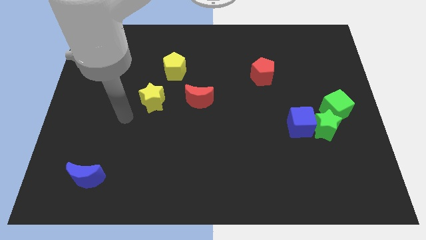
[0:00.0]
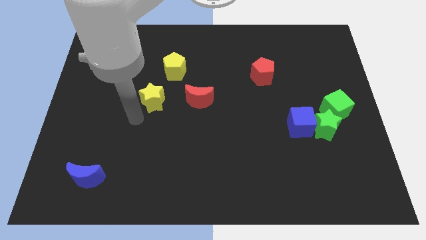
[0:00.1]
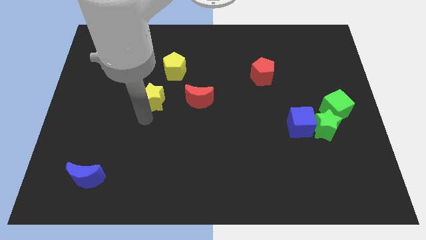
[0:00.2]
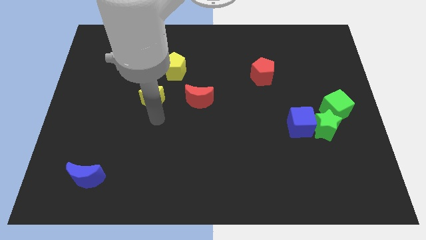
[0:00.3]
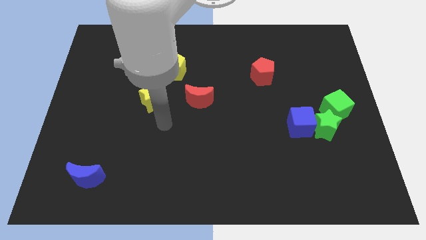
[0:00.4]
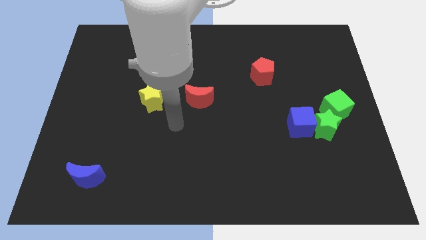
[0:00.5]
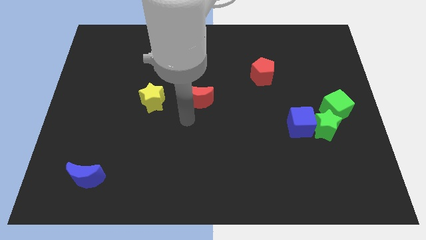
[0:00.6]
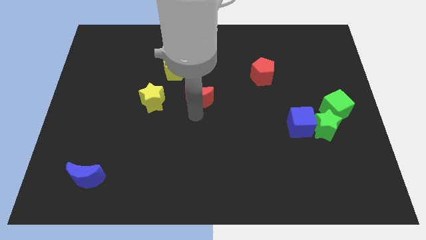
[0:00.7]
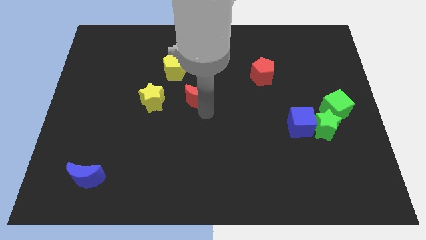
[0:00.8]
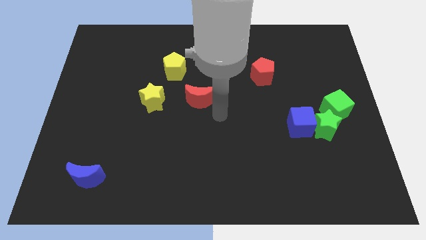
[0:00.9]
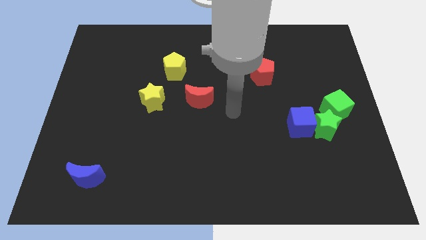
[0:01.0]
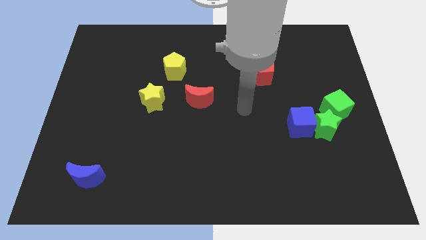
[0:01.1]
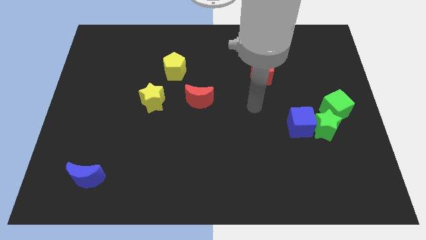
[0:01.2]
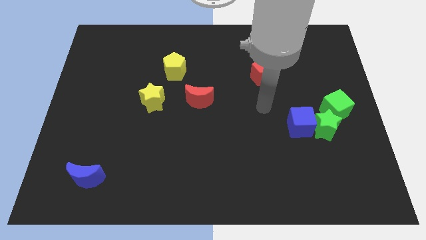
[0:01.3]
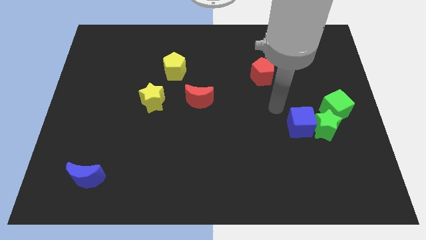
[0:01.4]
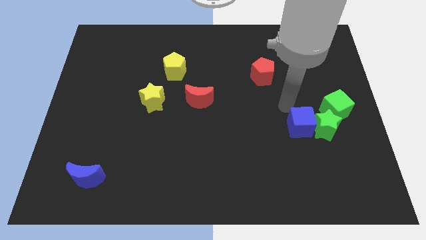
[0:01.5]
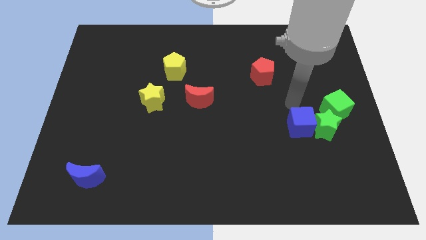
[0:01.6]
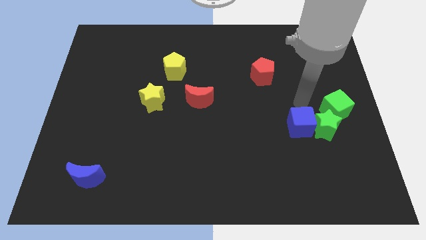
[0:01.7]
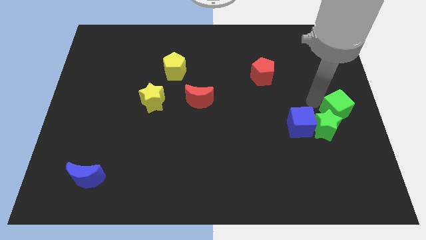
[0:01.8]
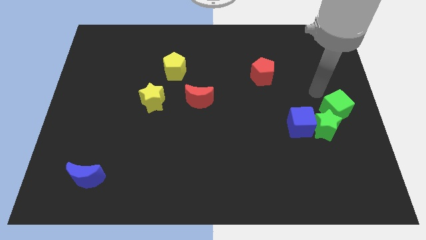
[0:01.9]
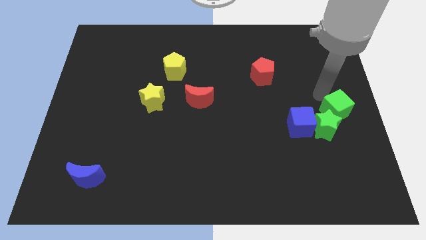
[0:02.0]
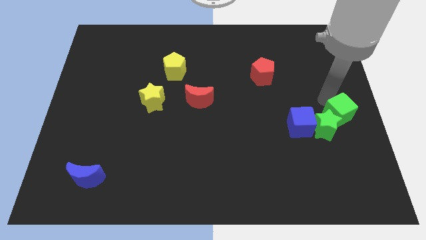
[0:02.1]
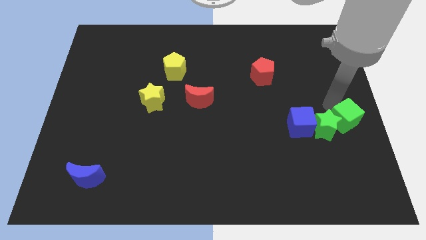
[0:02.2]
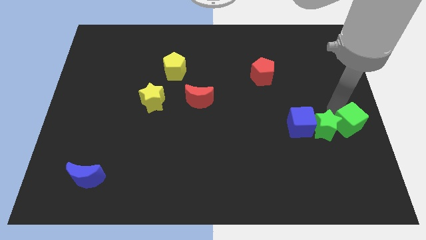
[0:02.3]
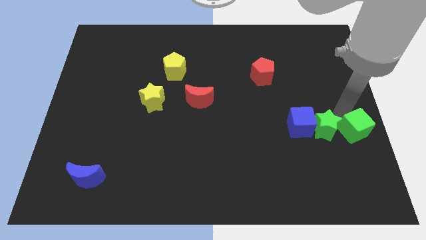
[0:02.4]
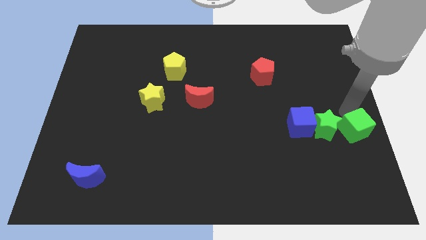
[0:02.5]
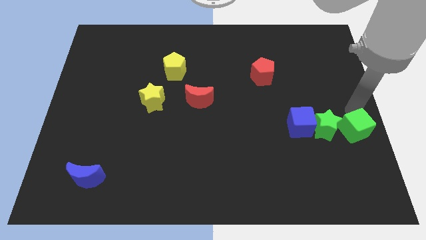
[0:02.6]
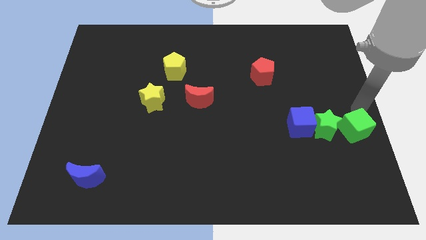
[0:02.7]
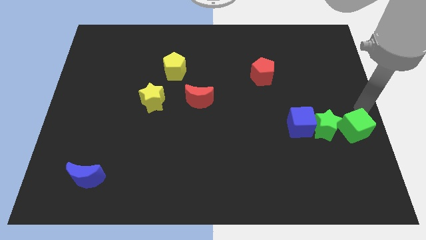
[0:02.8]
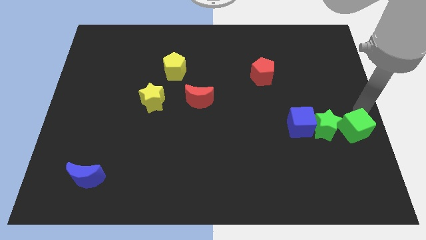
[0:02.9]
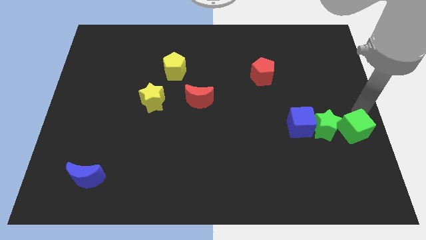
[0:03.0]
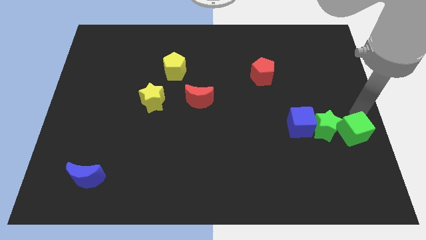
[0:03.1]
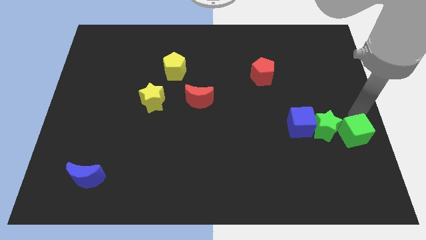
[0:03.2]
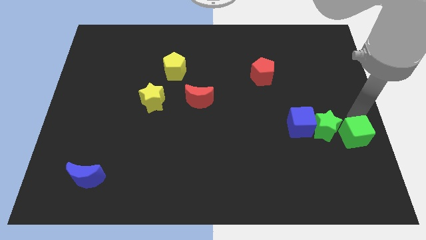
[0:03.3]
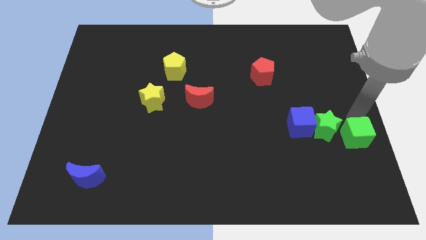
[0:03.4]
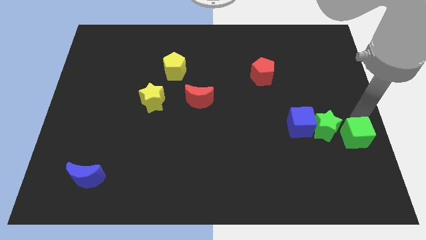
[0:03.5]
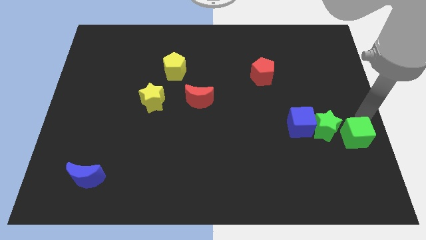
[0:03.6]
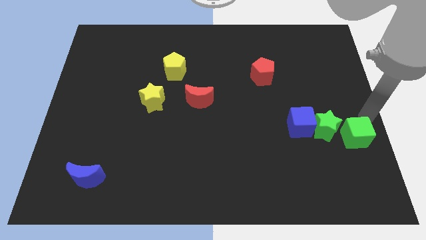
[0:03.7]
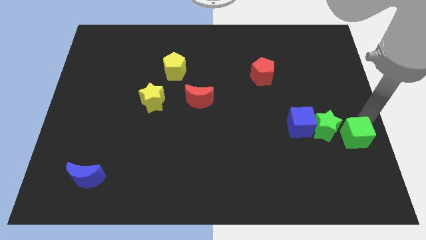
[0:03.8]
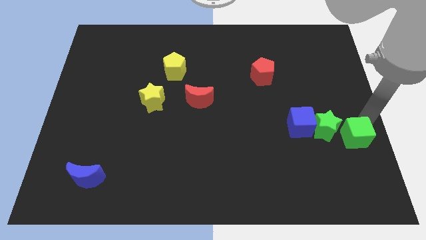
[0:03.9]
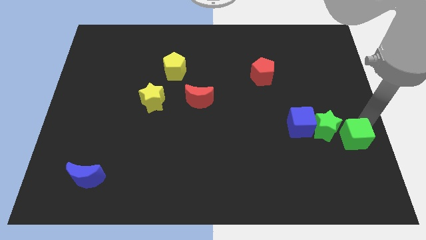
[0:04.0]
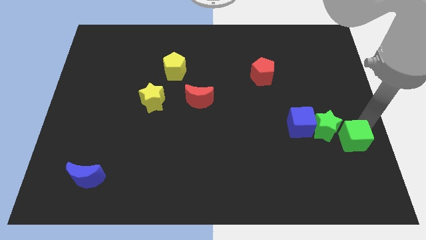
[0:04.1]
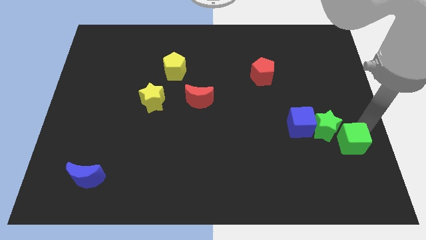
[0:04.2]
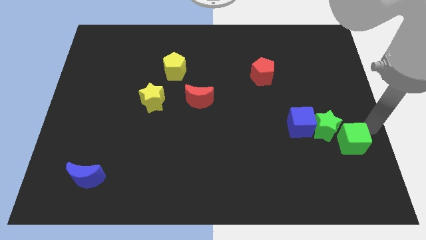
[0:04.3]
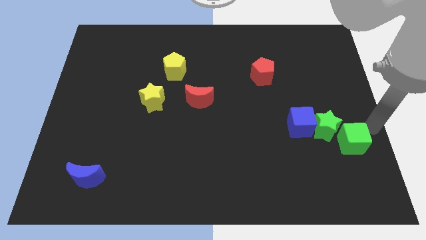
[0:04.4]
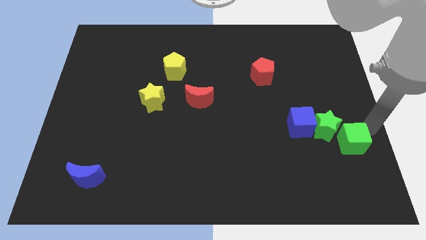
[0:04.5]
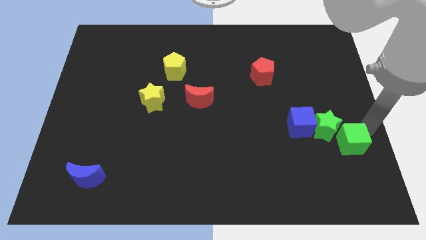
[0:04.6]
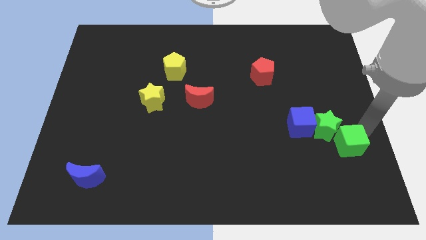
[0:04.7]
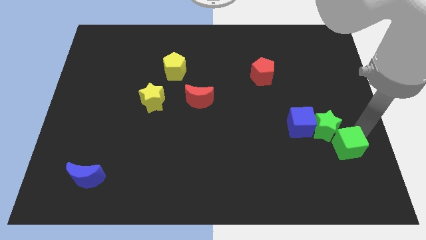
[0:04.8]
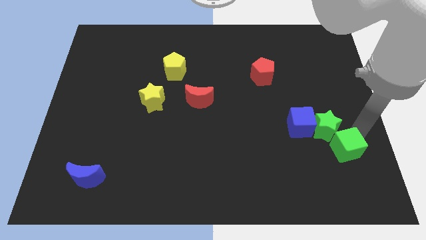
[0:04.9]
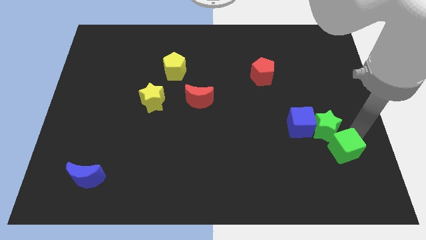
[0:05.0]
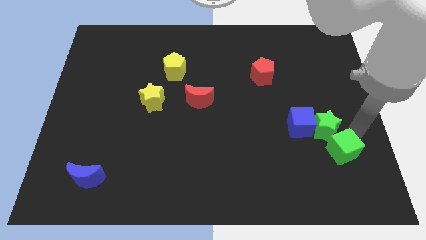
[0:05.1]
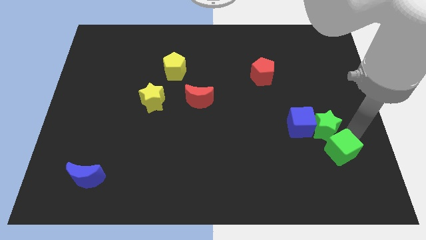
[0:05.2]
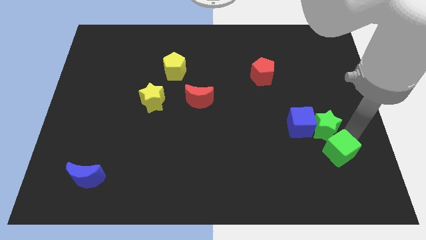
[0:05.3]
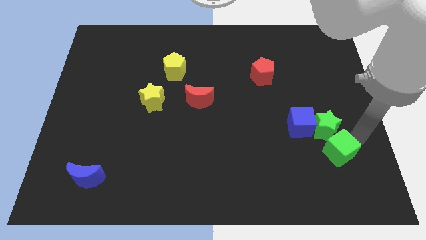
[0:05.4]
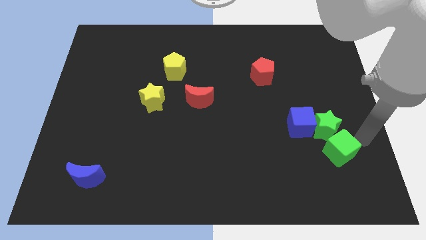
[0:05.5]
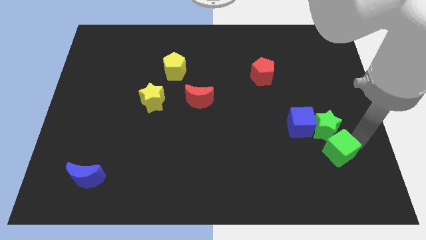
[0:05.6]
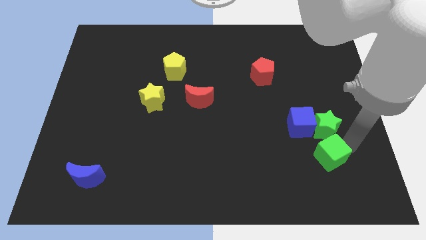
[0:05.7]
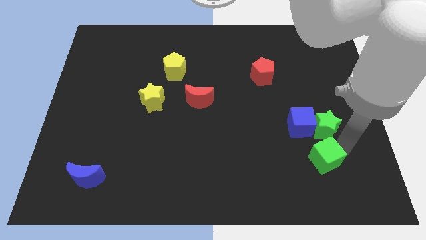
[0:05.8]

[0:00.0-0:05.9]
push the green cube to the bottom side of the blue cube

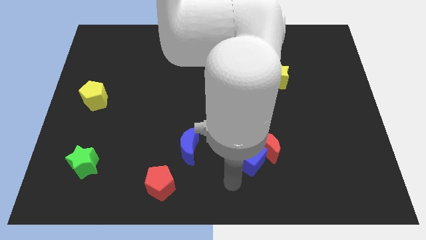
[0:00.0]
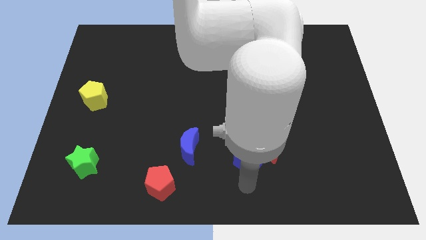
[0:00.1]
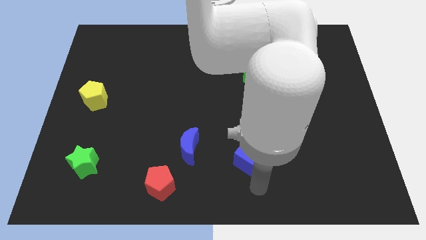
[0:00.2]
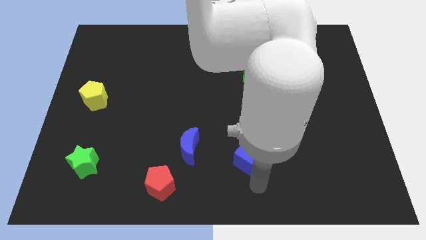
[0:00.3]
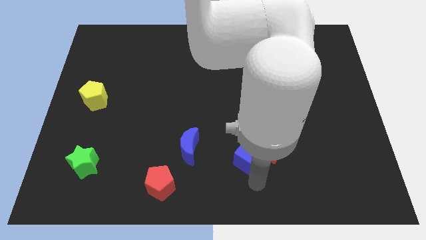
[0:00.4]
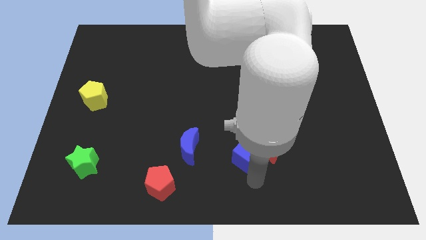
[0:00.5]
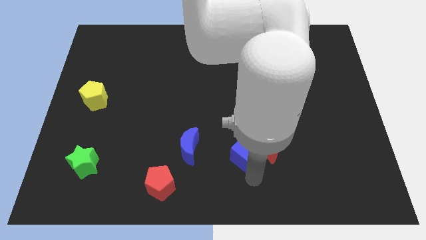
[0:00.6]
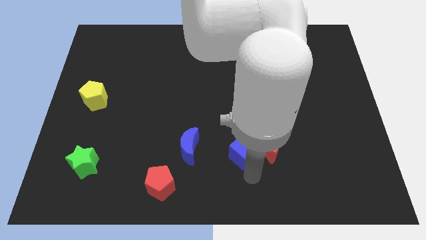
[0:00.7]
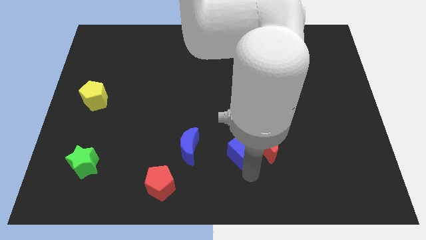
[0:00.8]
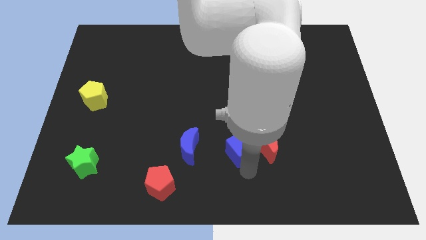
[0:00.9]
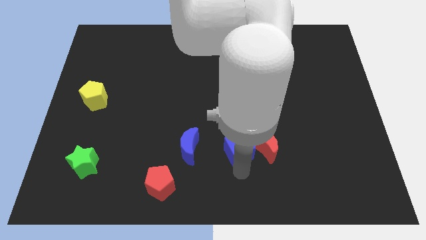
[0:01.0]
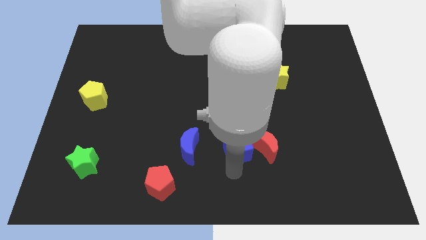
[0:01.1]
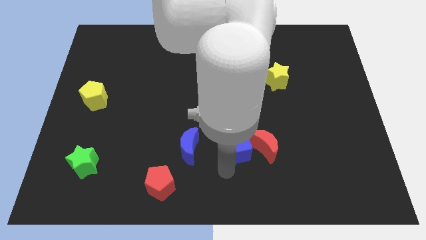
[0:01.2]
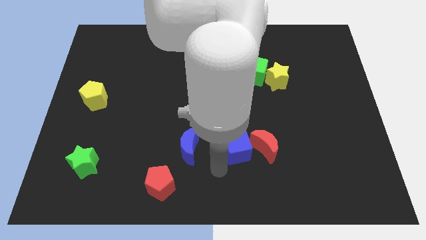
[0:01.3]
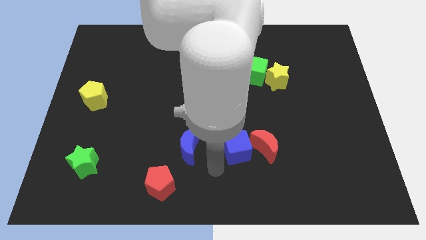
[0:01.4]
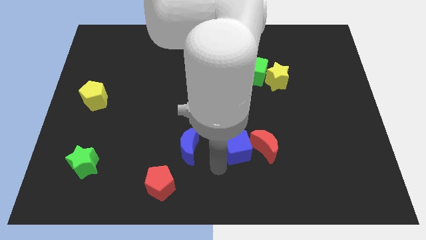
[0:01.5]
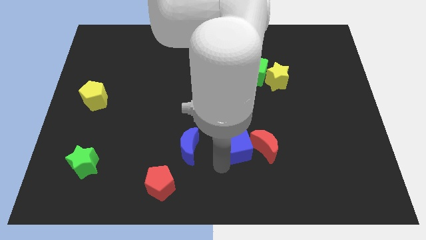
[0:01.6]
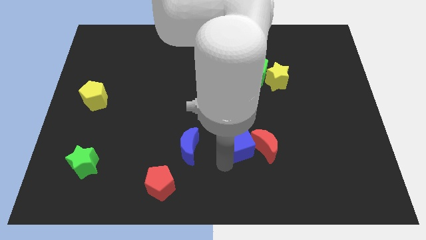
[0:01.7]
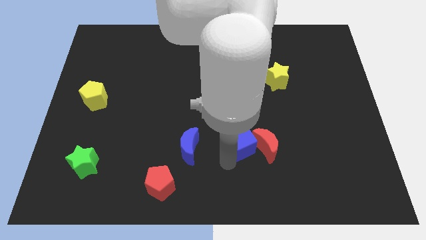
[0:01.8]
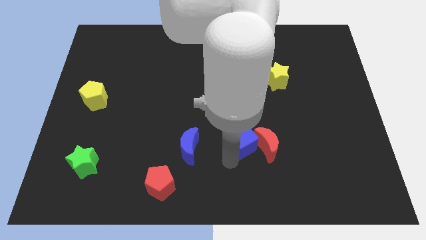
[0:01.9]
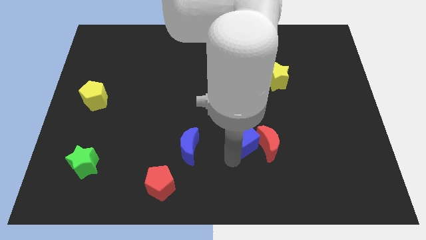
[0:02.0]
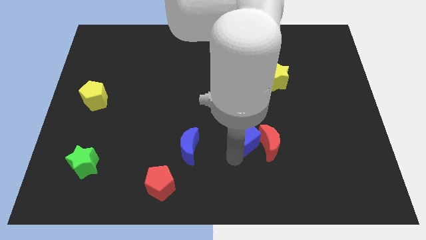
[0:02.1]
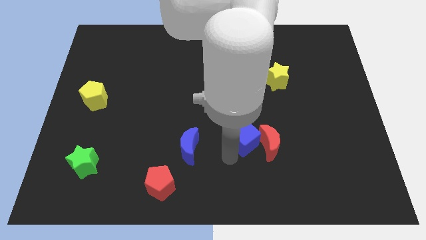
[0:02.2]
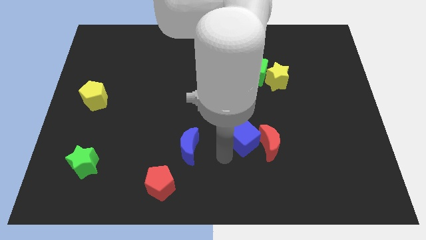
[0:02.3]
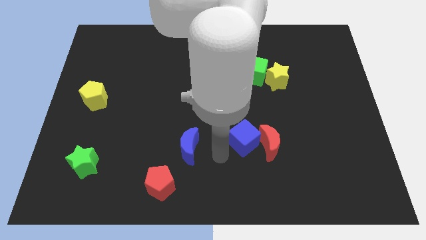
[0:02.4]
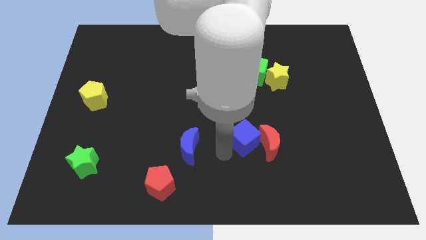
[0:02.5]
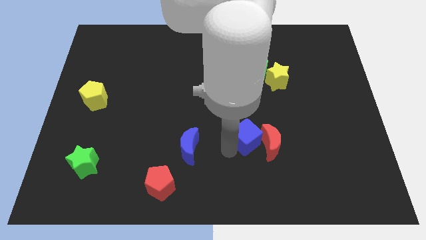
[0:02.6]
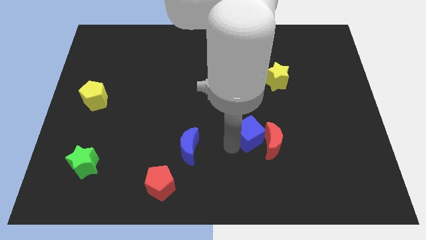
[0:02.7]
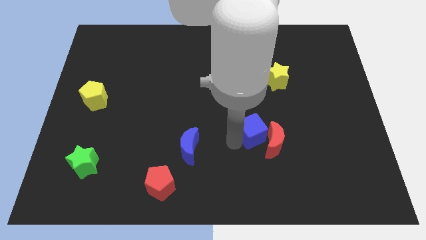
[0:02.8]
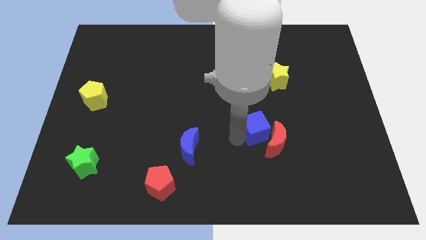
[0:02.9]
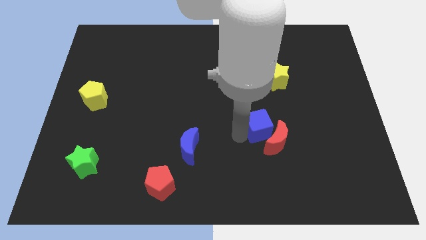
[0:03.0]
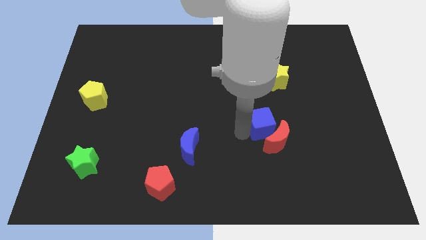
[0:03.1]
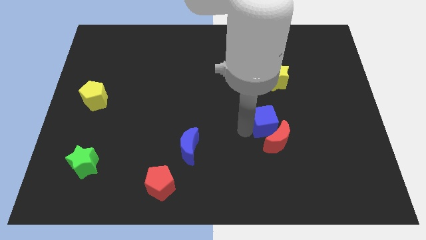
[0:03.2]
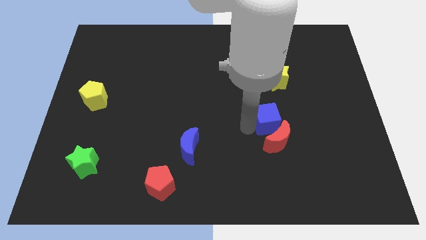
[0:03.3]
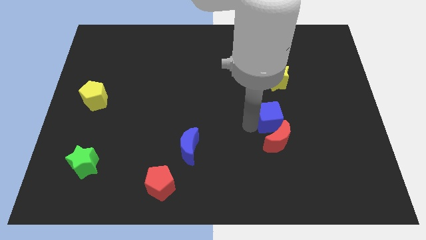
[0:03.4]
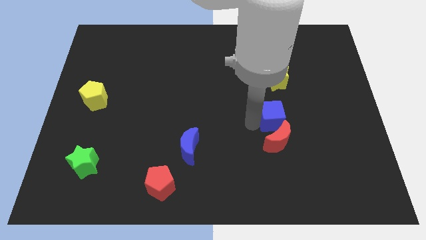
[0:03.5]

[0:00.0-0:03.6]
move the blue cube diagonally up and to the right of the red moon
